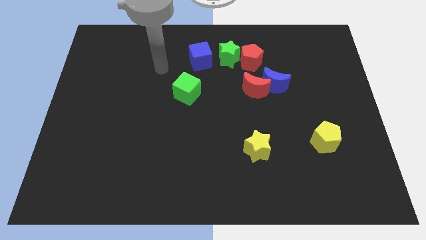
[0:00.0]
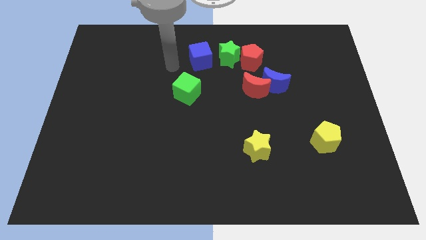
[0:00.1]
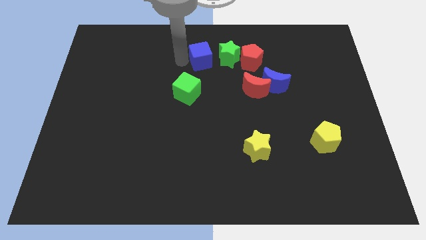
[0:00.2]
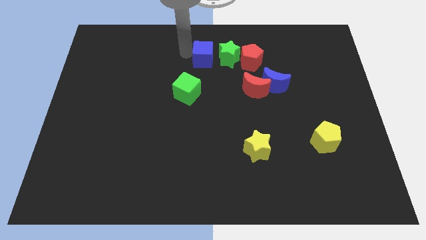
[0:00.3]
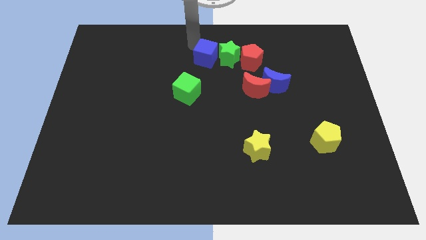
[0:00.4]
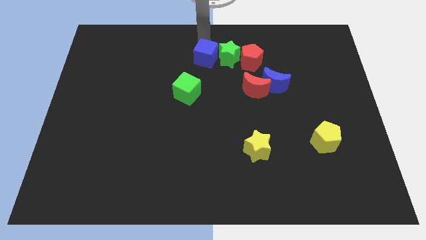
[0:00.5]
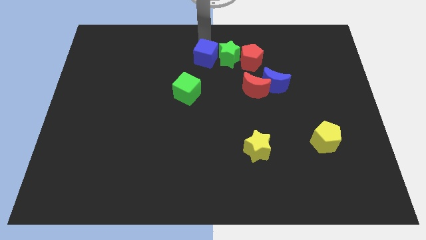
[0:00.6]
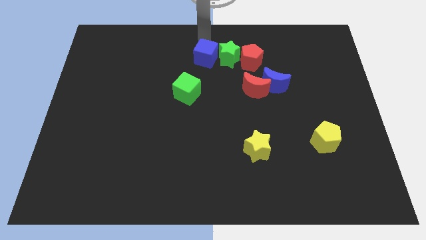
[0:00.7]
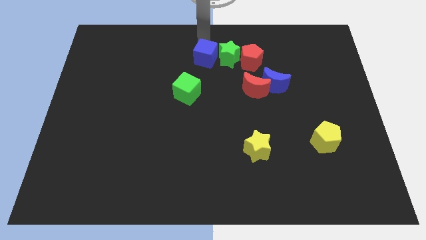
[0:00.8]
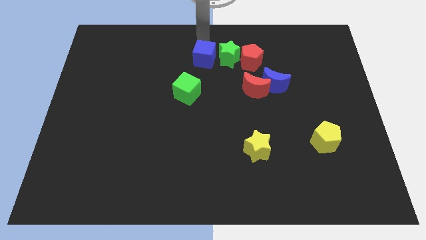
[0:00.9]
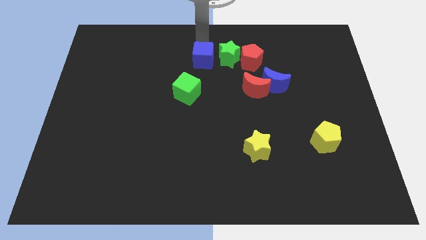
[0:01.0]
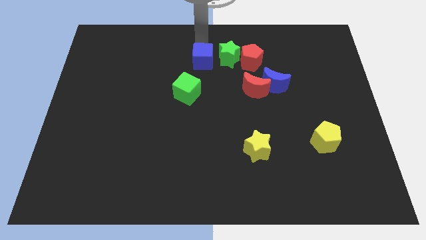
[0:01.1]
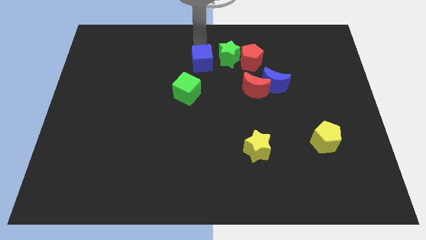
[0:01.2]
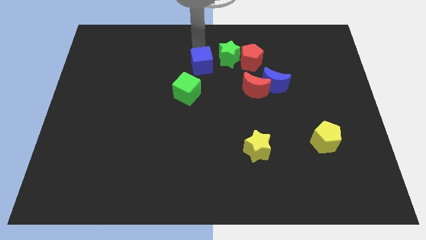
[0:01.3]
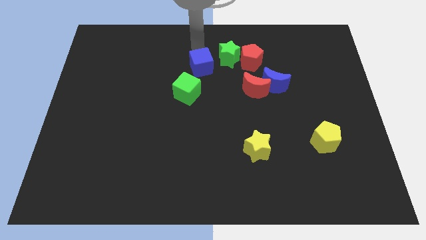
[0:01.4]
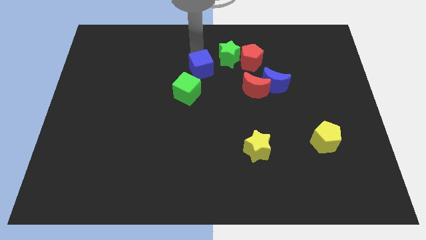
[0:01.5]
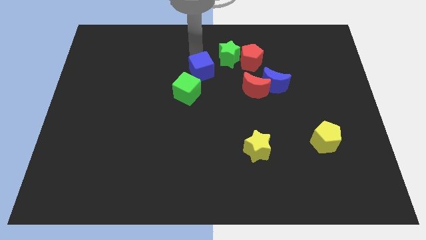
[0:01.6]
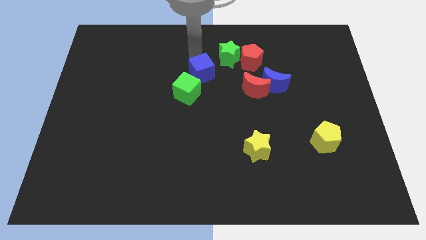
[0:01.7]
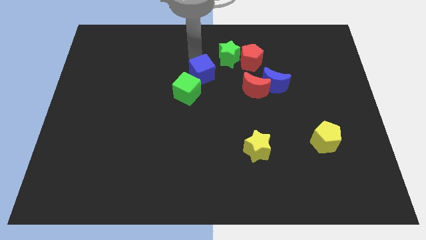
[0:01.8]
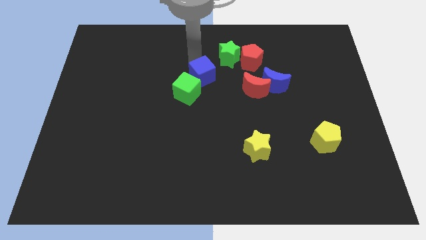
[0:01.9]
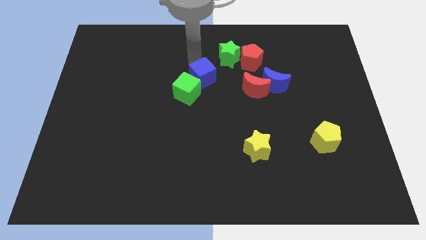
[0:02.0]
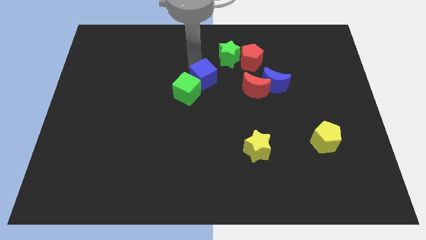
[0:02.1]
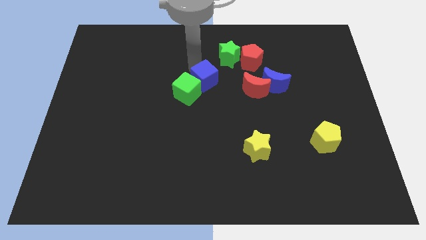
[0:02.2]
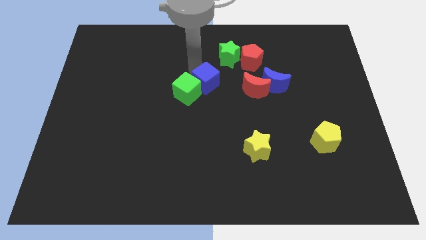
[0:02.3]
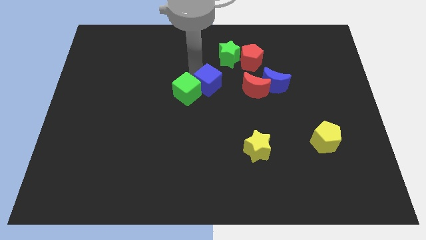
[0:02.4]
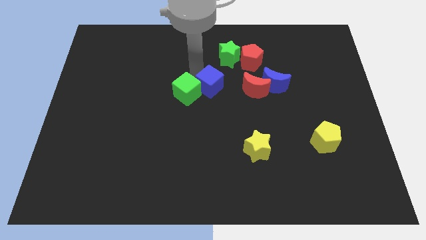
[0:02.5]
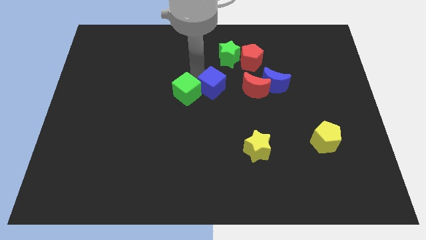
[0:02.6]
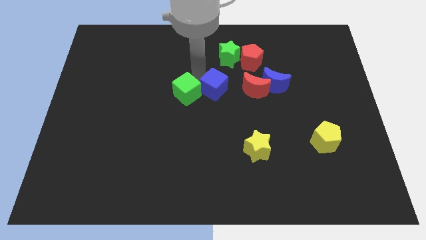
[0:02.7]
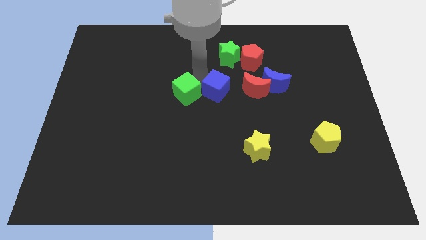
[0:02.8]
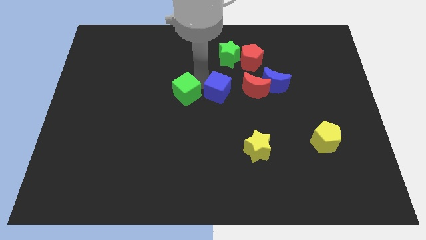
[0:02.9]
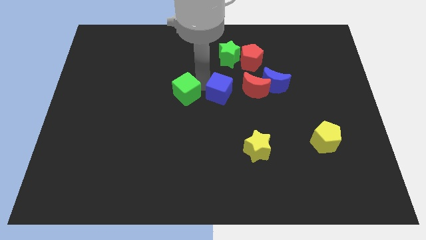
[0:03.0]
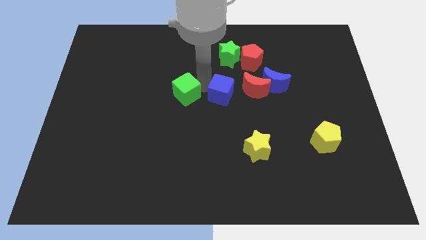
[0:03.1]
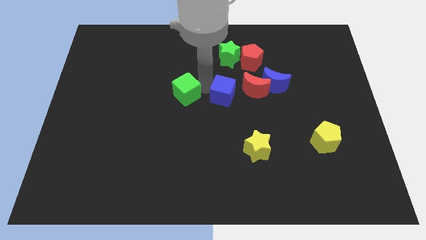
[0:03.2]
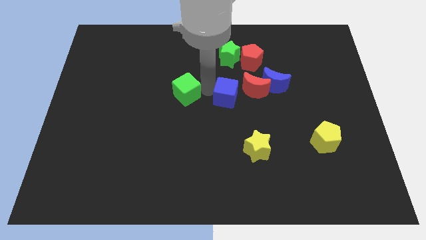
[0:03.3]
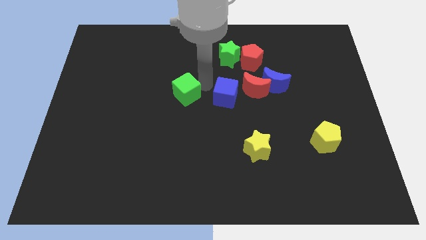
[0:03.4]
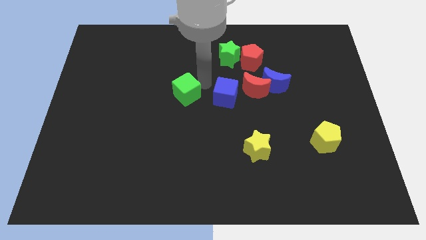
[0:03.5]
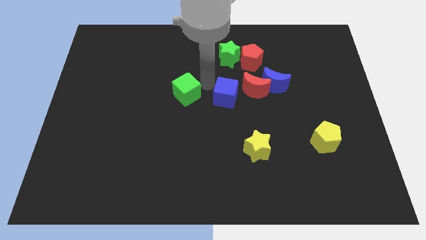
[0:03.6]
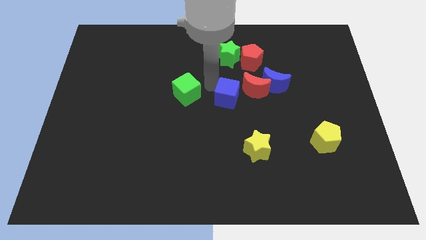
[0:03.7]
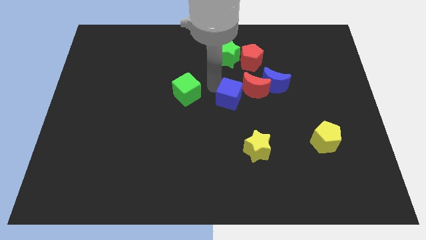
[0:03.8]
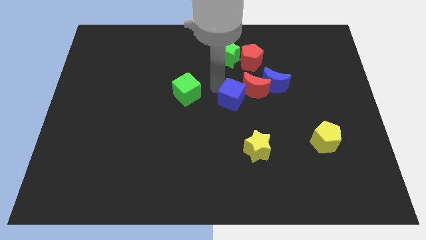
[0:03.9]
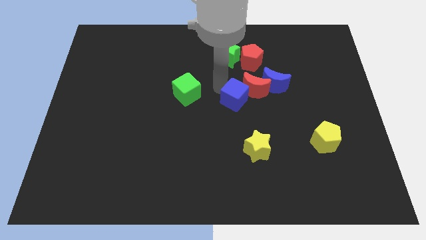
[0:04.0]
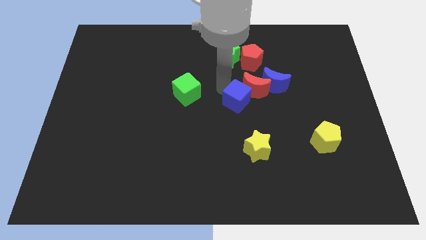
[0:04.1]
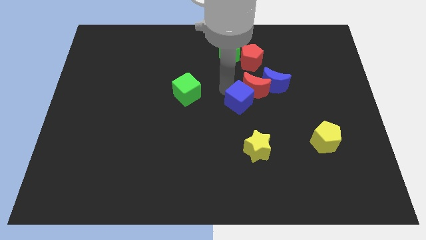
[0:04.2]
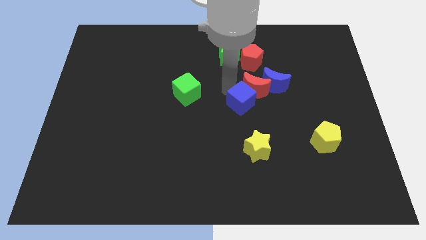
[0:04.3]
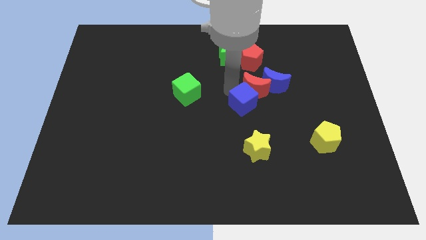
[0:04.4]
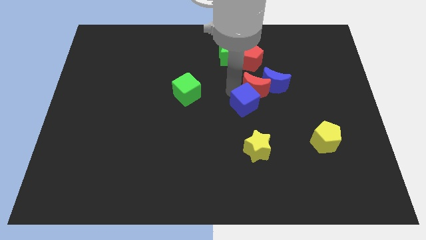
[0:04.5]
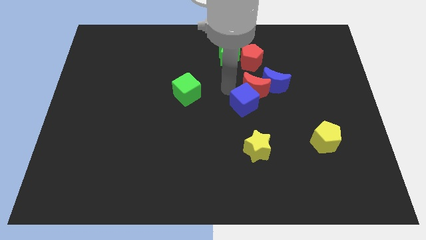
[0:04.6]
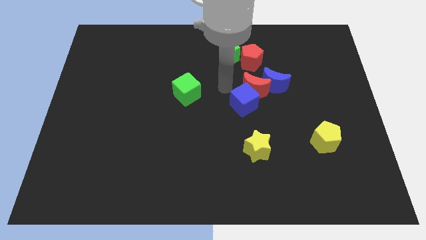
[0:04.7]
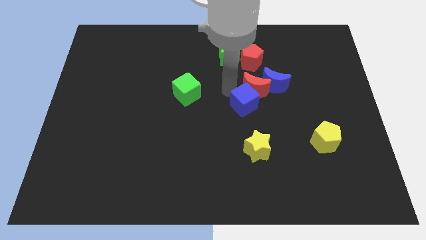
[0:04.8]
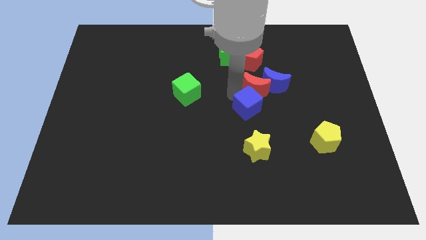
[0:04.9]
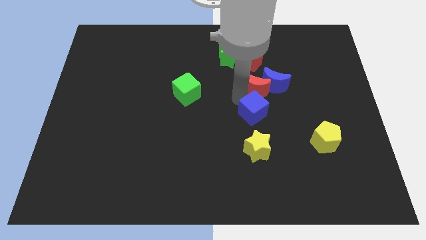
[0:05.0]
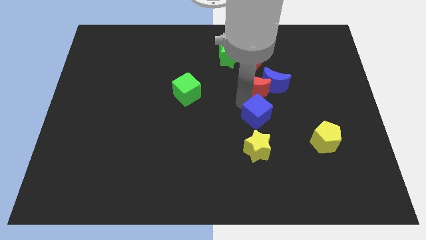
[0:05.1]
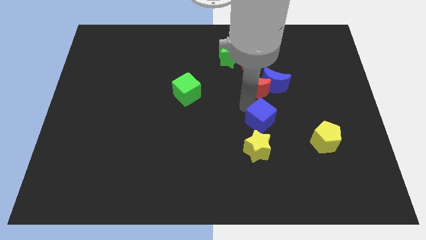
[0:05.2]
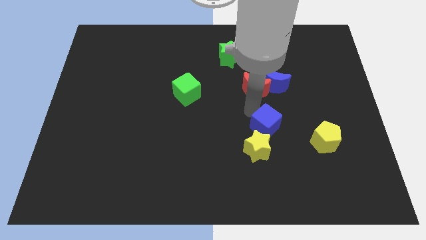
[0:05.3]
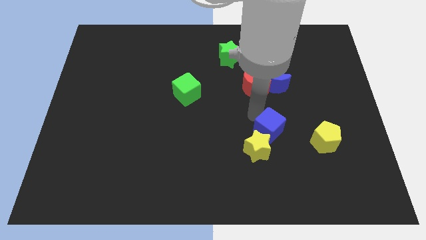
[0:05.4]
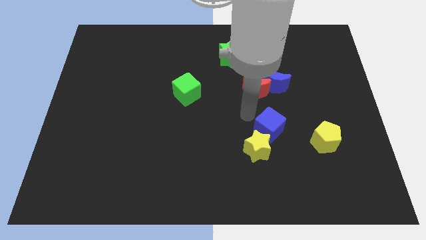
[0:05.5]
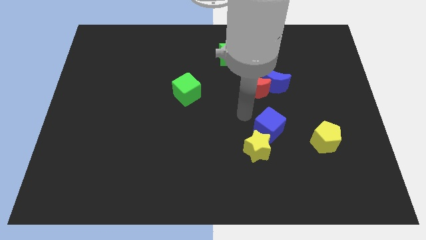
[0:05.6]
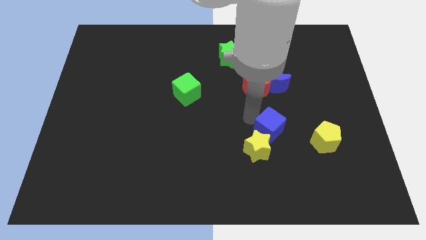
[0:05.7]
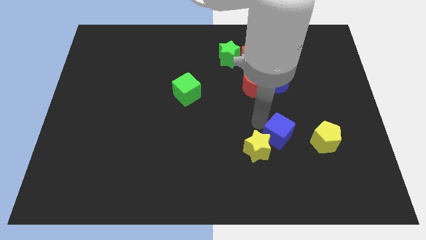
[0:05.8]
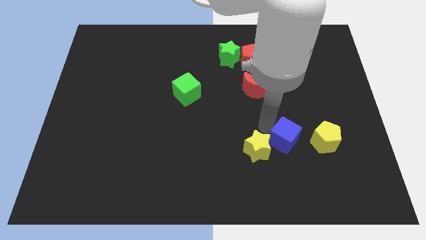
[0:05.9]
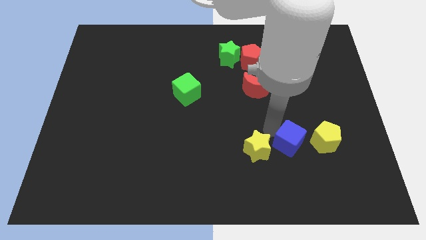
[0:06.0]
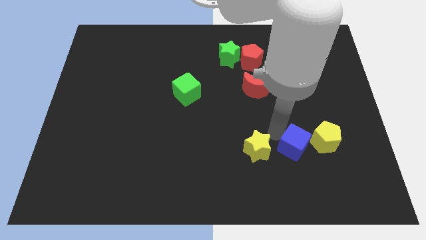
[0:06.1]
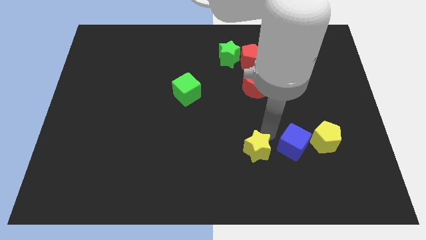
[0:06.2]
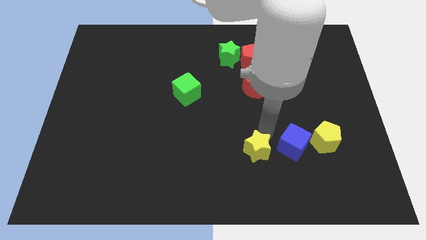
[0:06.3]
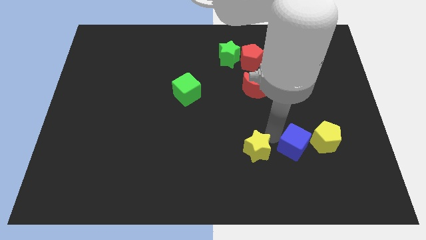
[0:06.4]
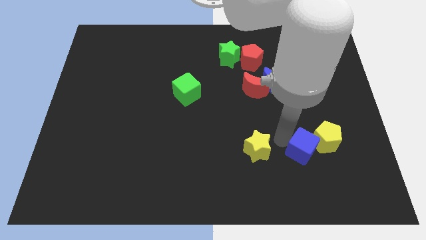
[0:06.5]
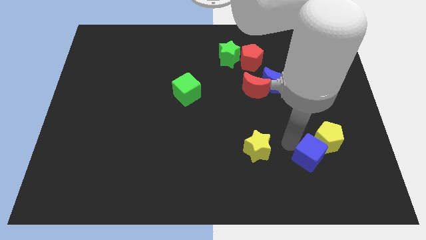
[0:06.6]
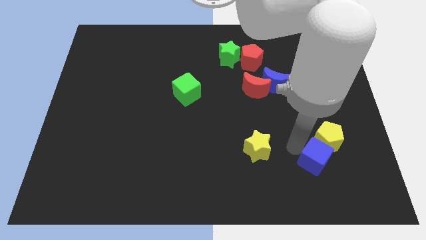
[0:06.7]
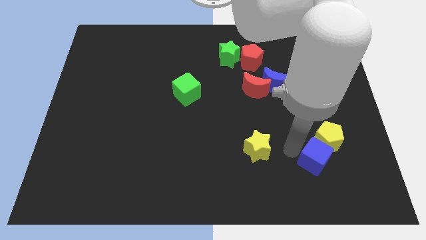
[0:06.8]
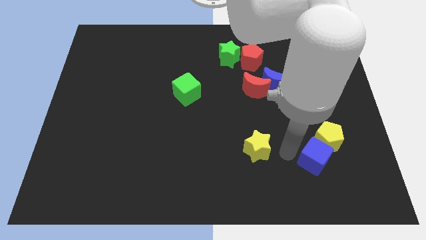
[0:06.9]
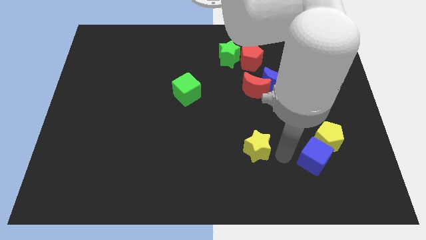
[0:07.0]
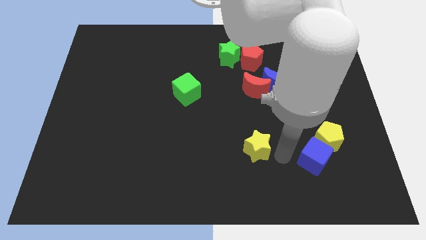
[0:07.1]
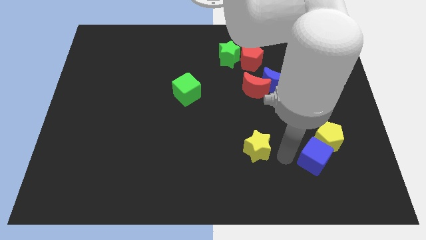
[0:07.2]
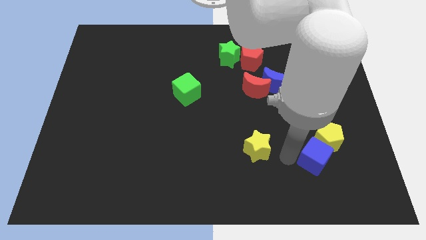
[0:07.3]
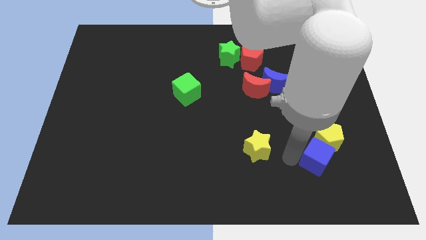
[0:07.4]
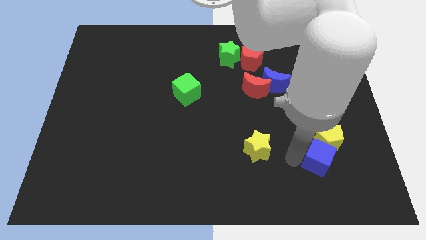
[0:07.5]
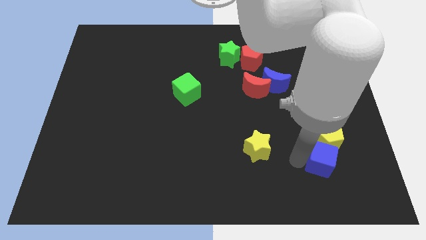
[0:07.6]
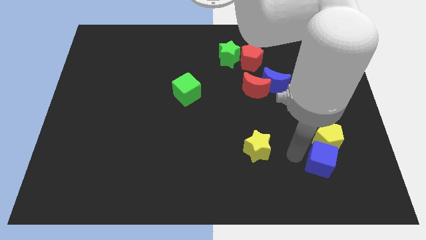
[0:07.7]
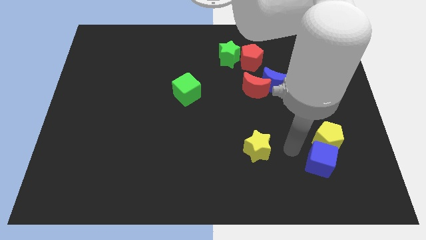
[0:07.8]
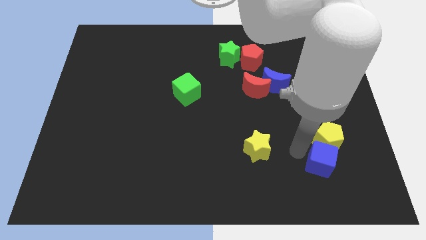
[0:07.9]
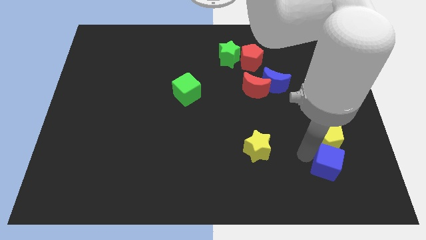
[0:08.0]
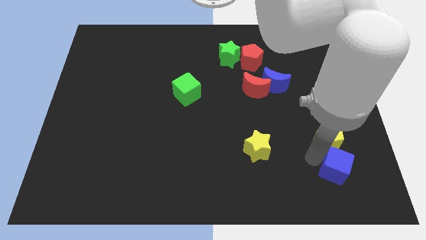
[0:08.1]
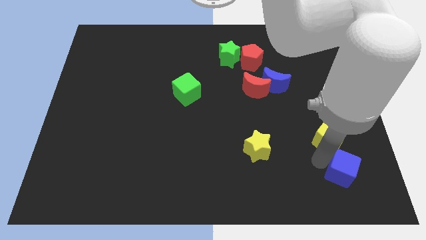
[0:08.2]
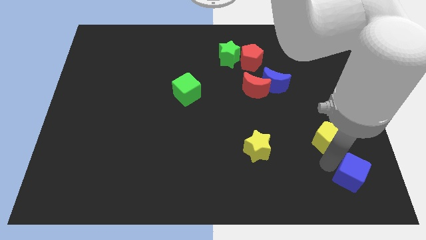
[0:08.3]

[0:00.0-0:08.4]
put the blue cube to the bottom right of the board
